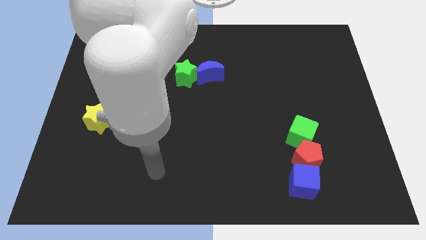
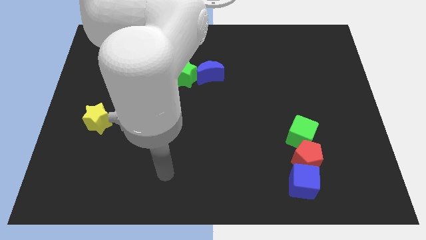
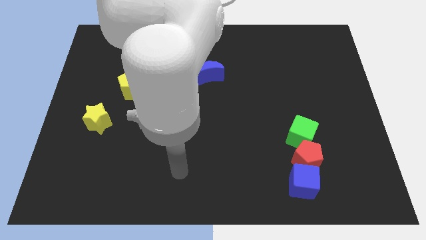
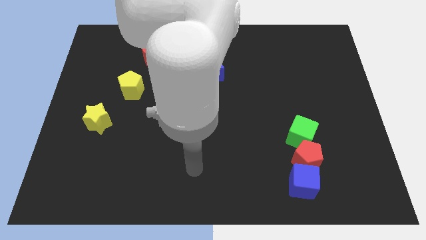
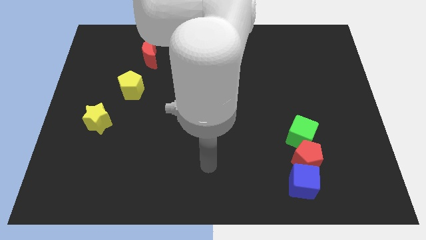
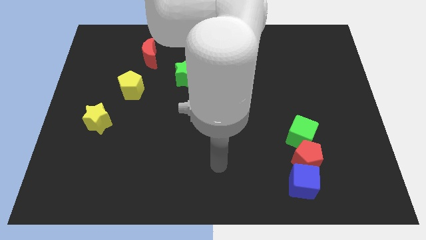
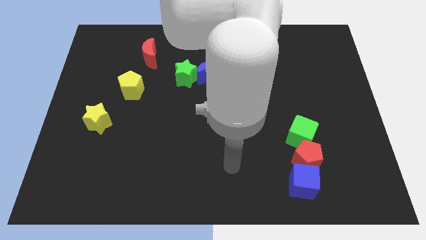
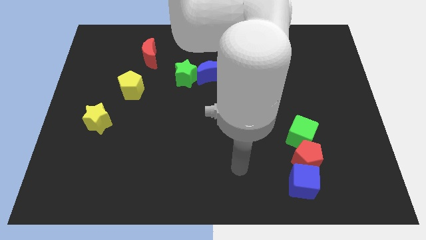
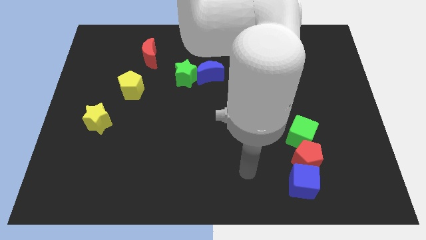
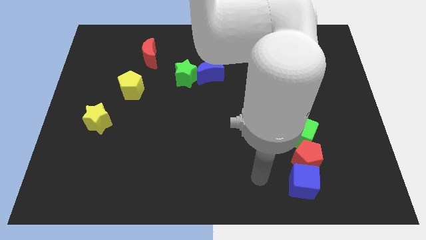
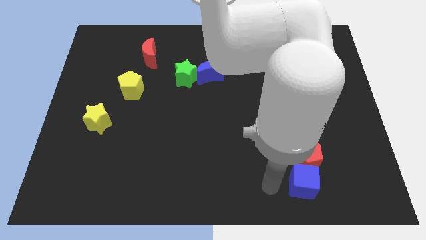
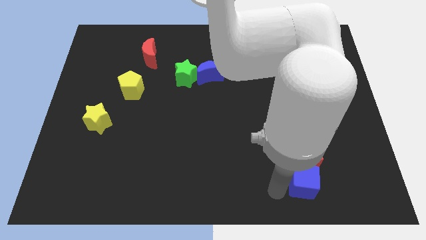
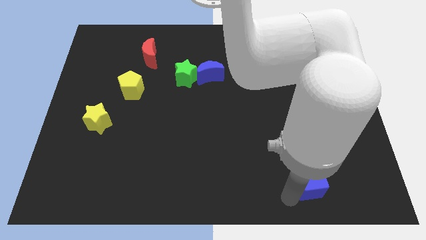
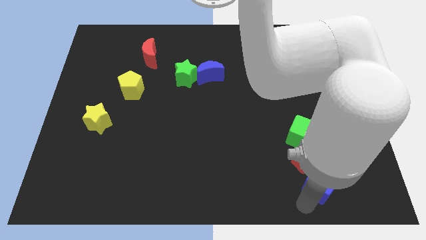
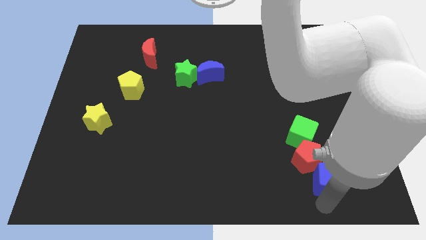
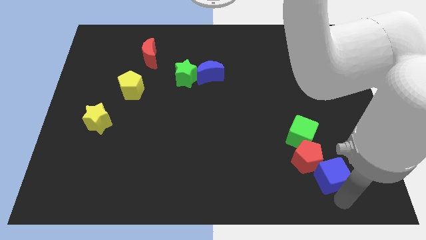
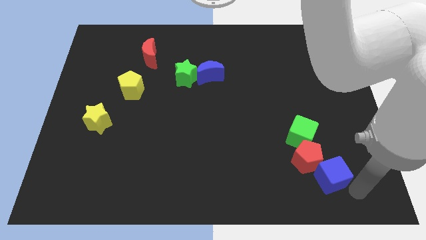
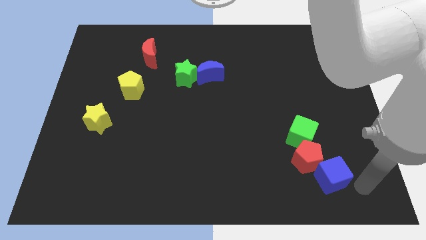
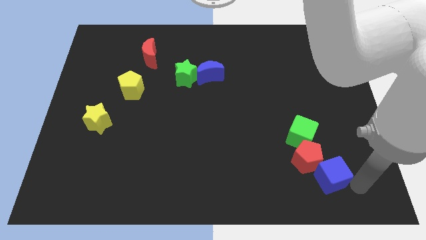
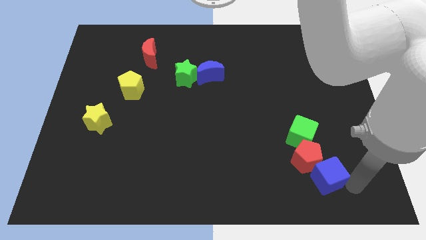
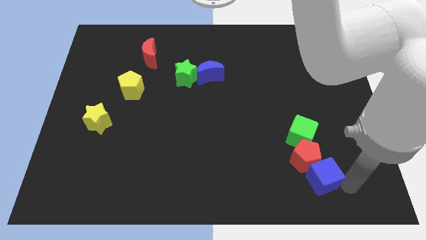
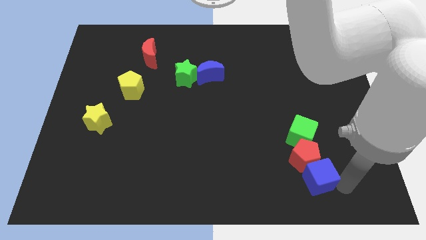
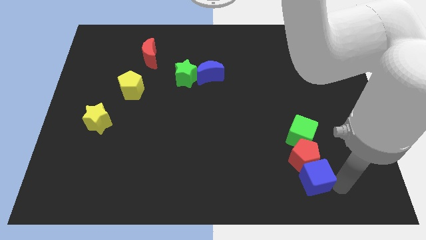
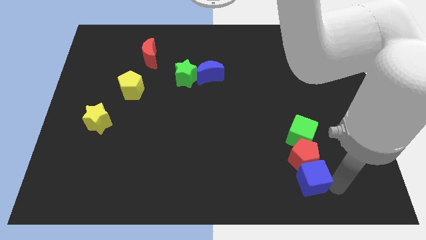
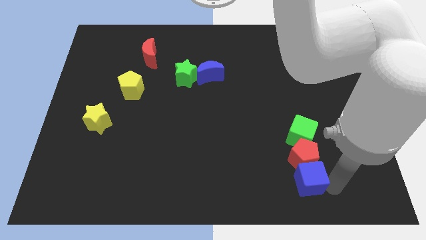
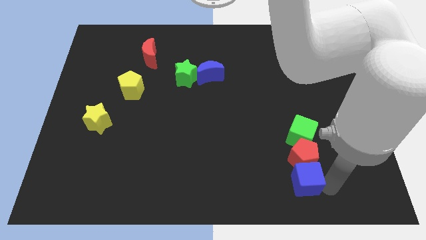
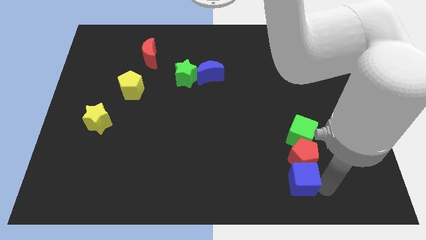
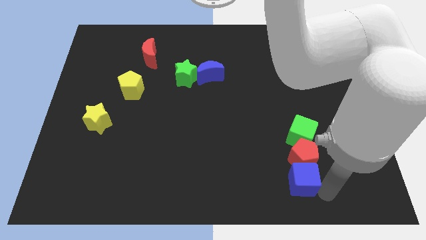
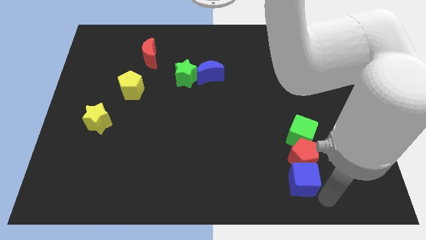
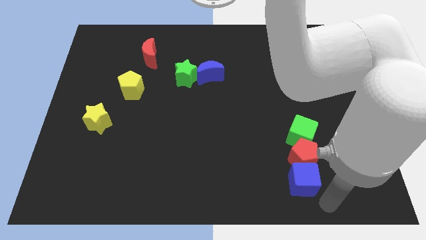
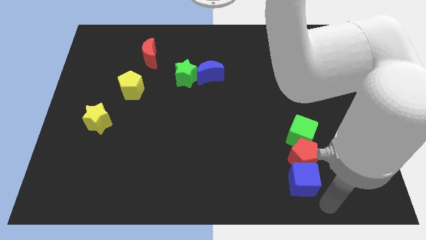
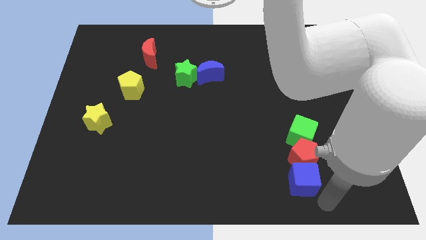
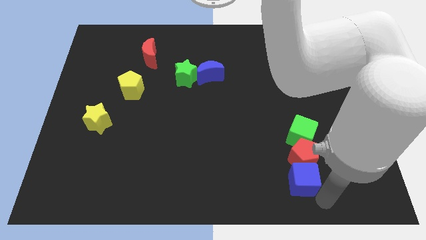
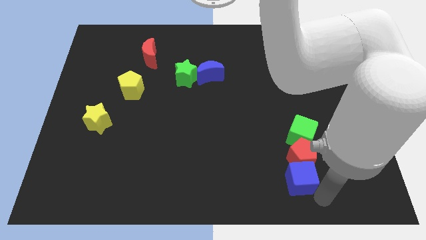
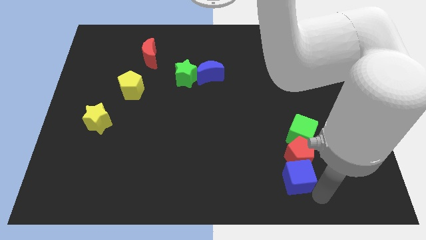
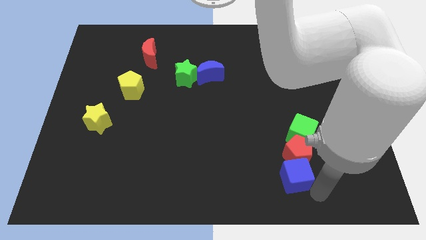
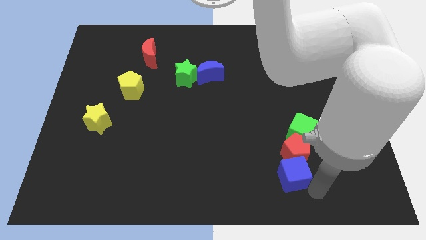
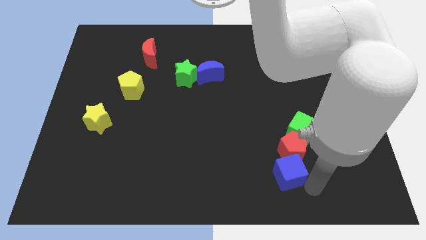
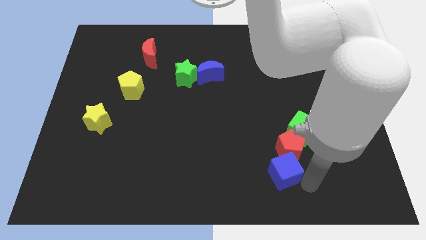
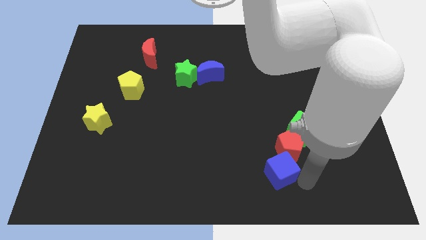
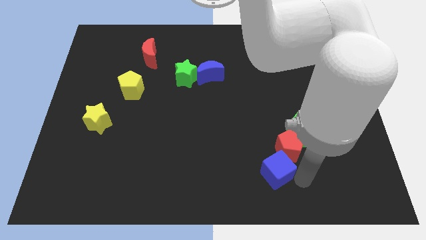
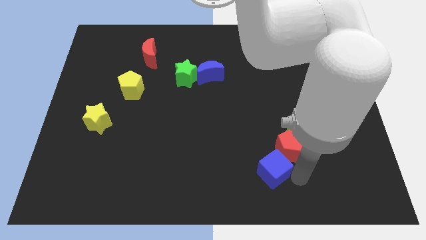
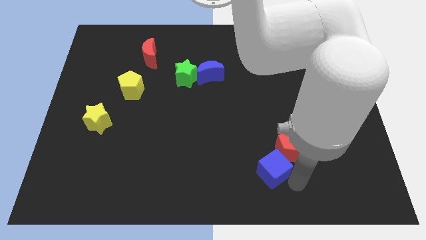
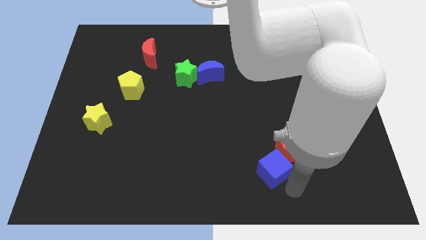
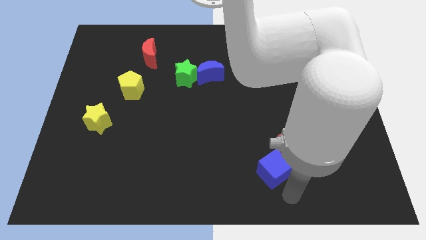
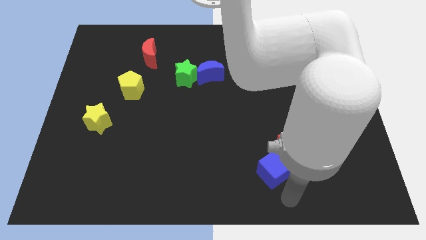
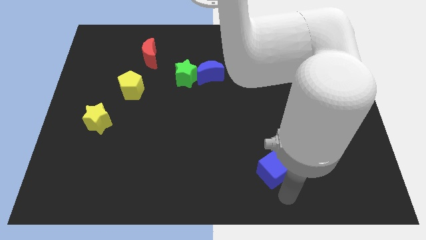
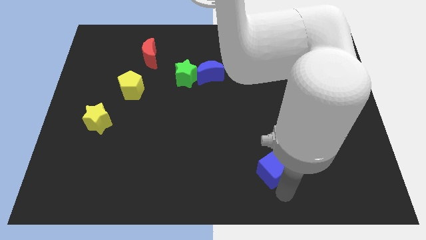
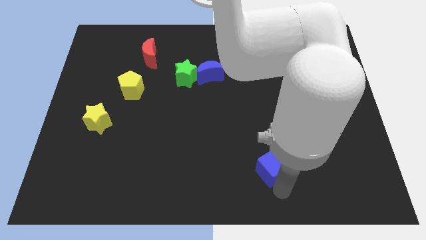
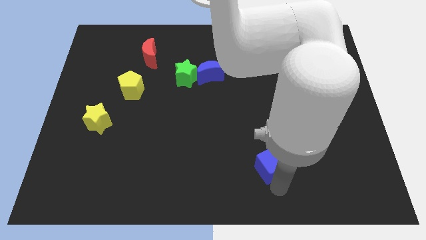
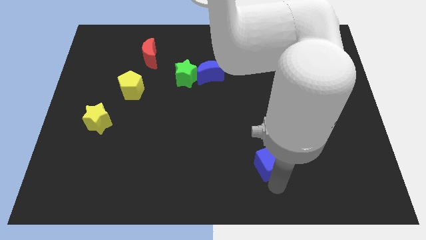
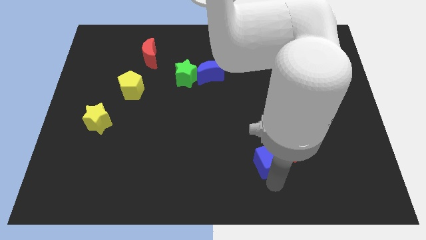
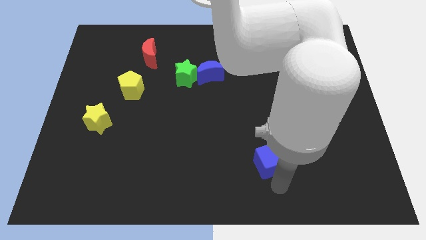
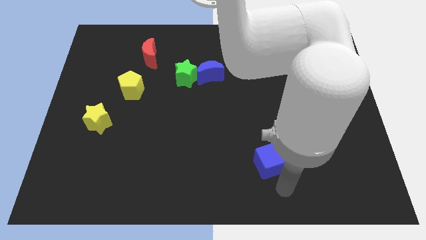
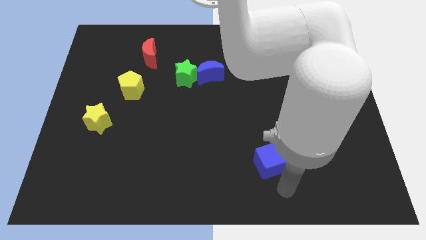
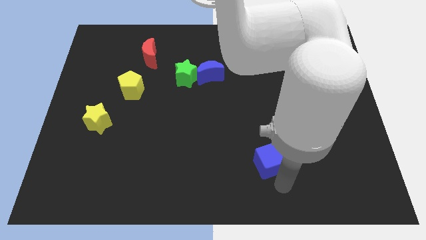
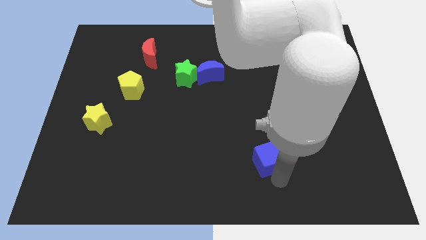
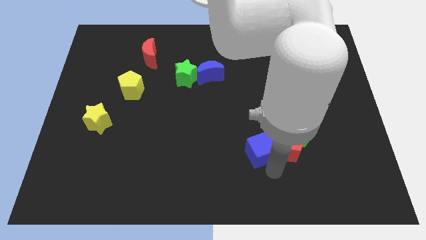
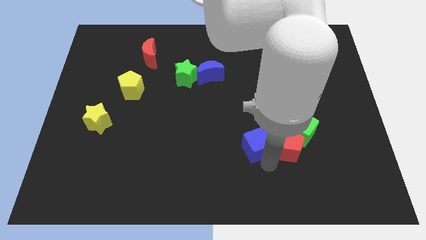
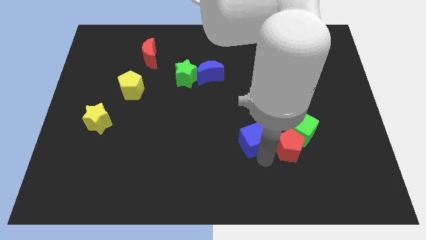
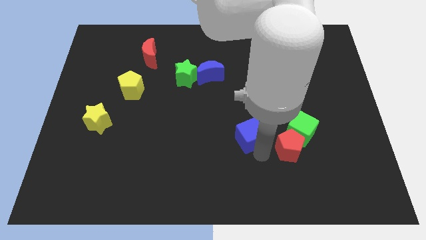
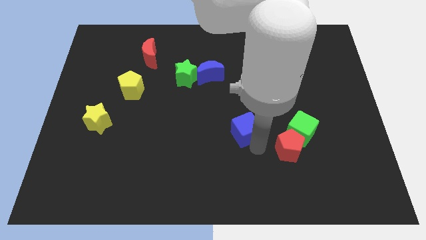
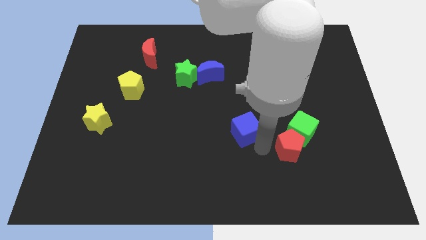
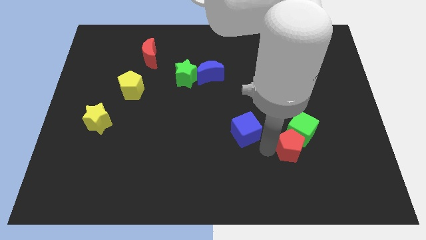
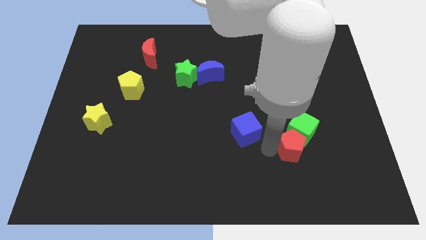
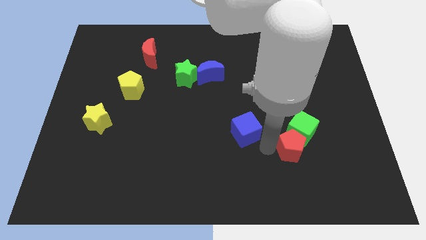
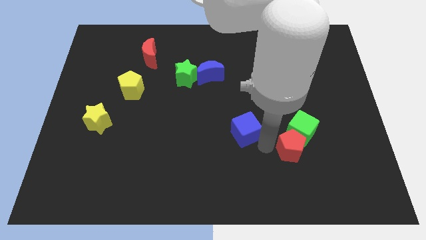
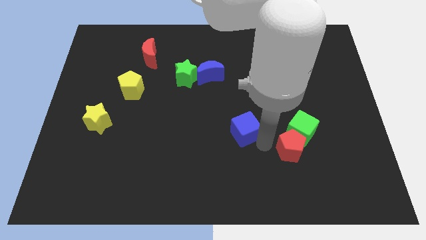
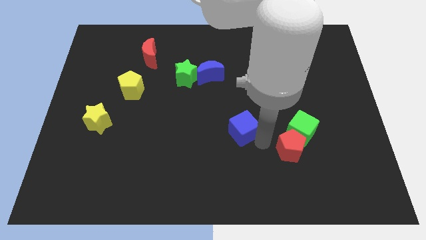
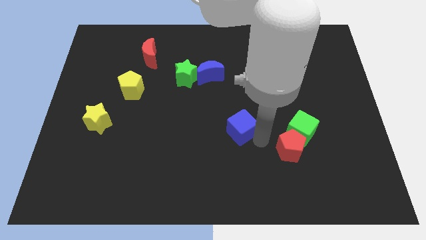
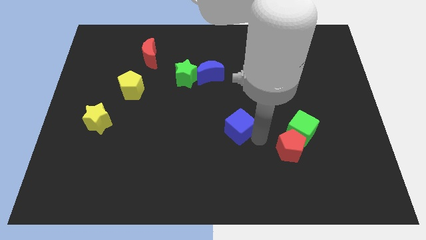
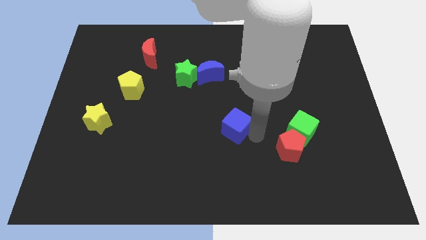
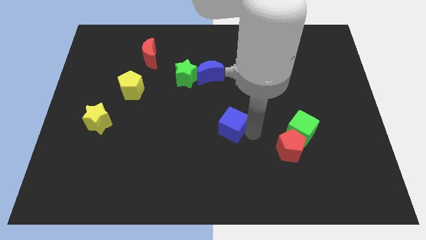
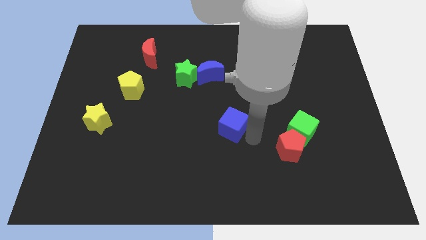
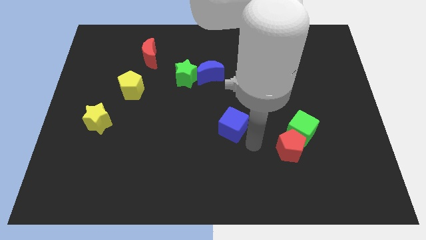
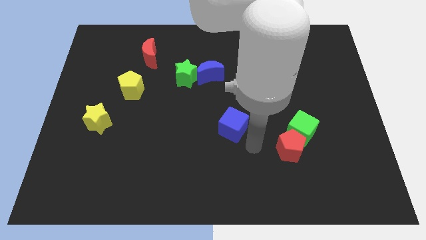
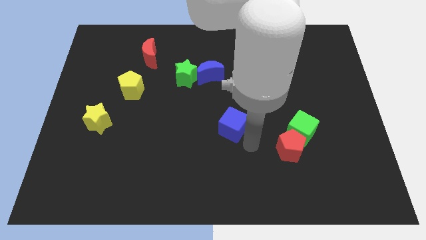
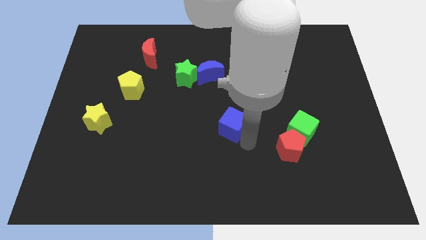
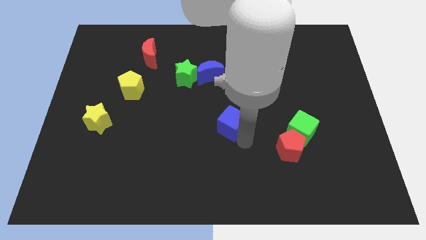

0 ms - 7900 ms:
move the blue cube upwards and to the left diagonally
